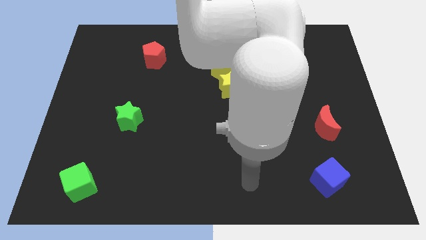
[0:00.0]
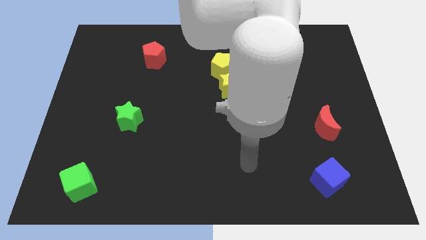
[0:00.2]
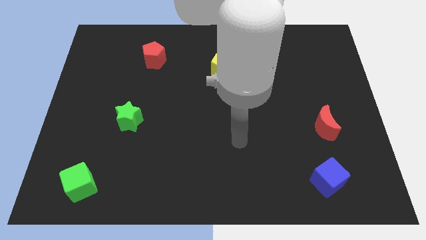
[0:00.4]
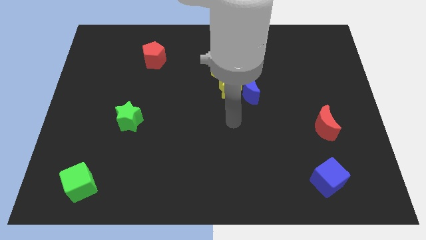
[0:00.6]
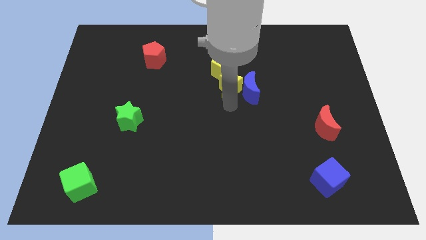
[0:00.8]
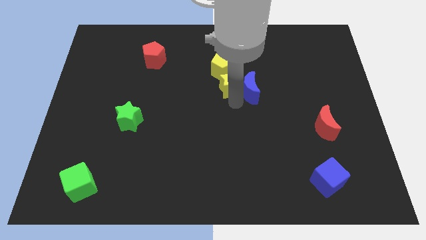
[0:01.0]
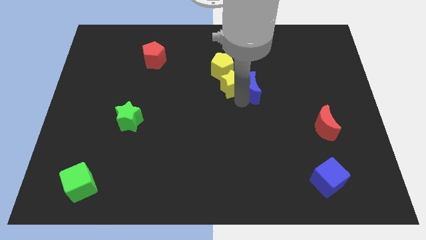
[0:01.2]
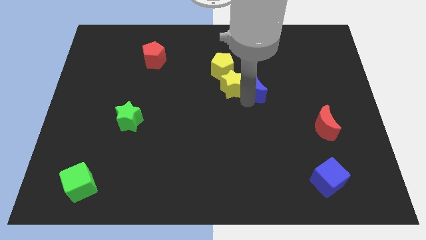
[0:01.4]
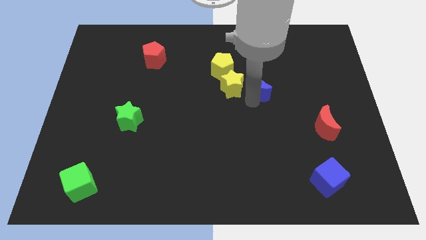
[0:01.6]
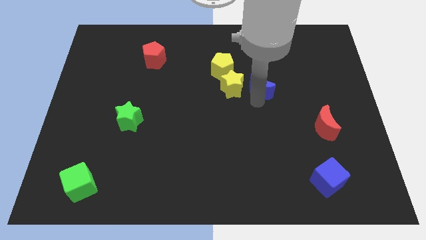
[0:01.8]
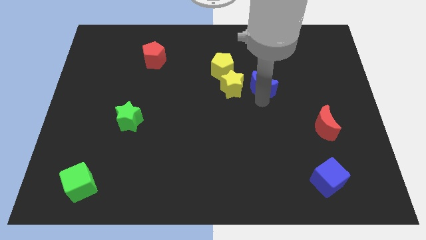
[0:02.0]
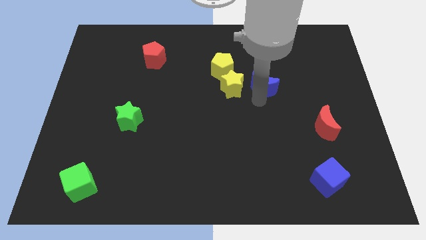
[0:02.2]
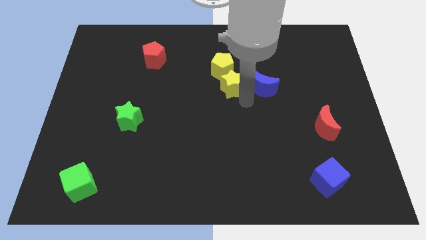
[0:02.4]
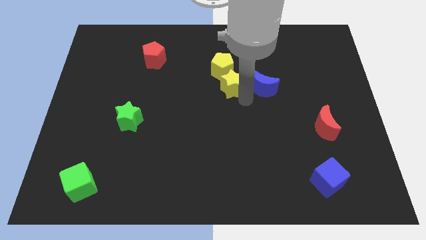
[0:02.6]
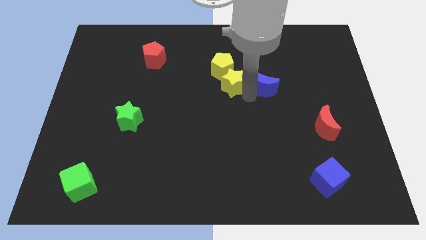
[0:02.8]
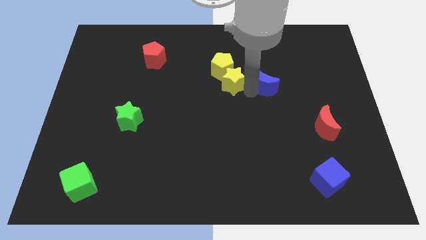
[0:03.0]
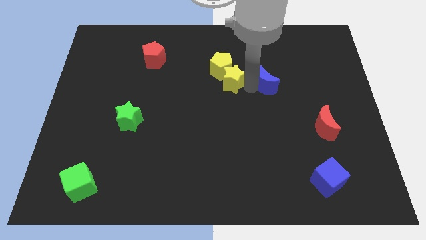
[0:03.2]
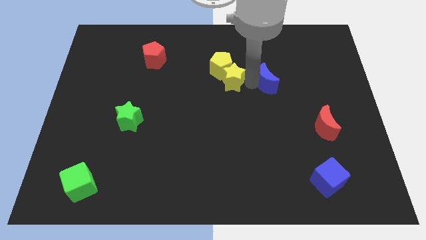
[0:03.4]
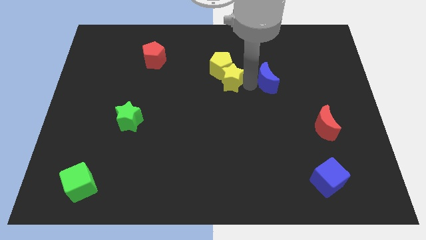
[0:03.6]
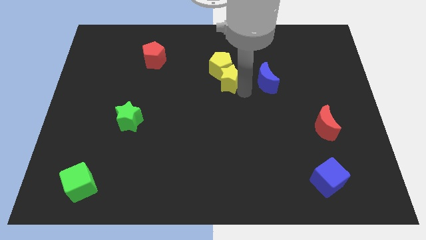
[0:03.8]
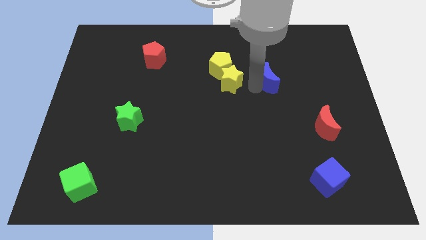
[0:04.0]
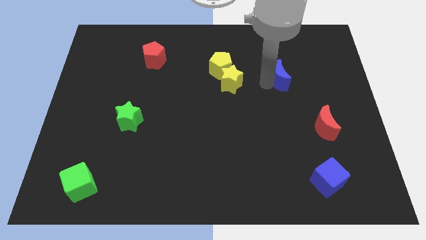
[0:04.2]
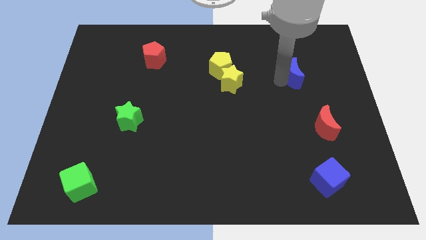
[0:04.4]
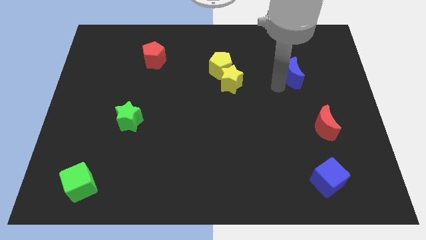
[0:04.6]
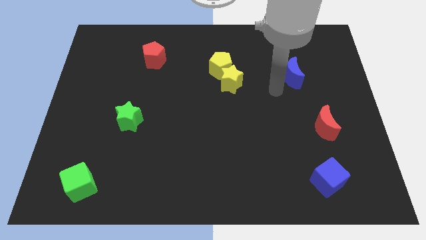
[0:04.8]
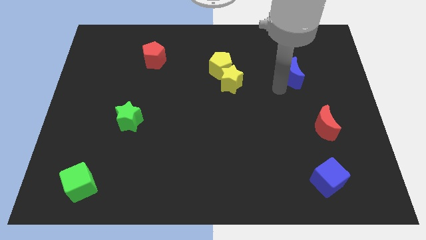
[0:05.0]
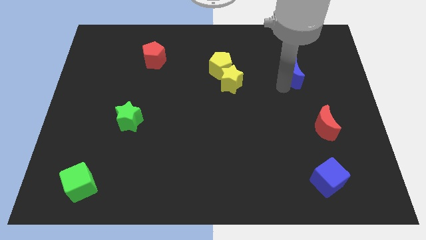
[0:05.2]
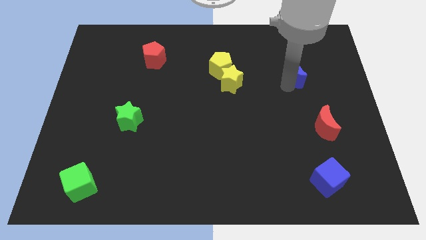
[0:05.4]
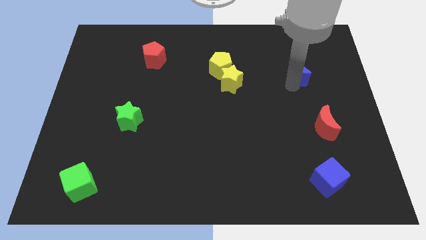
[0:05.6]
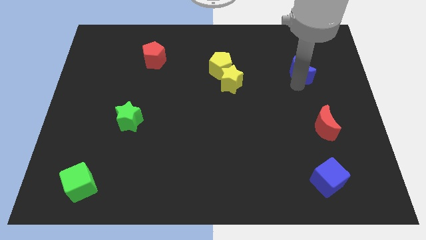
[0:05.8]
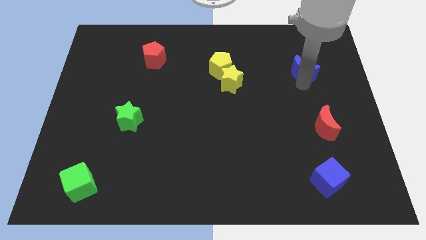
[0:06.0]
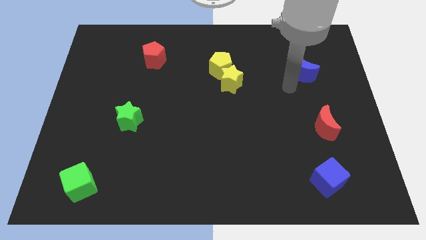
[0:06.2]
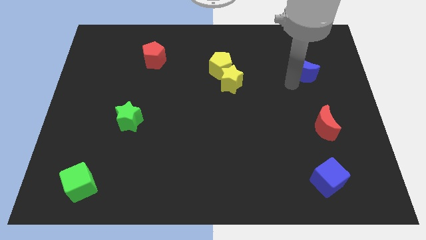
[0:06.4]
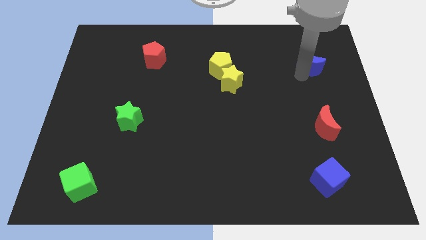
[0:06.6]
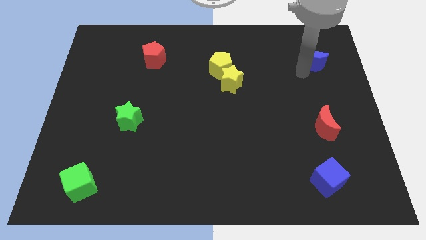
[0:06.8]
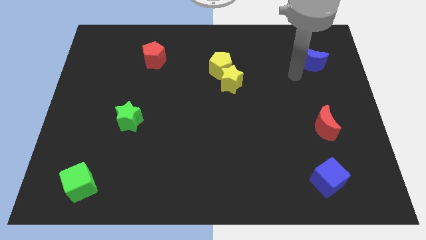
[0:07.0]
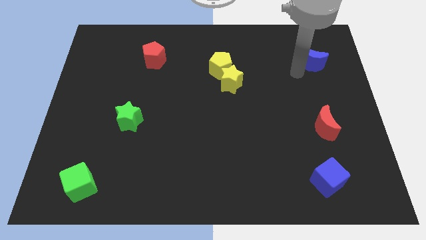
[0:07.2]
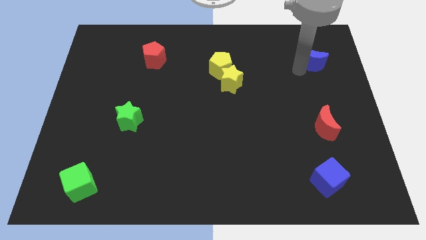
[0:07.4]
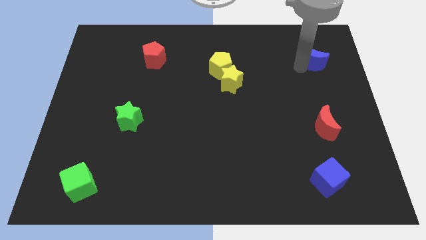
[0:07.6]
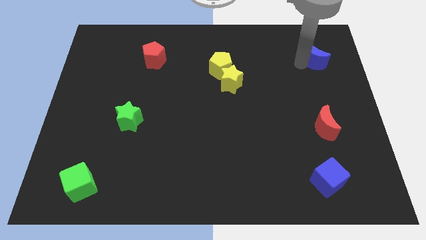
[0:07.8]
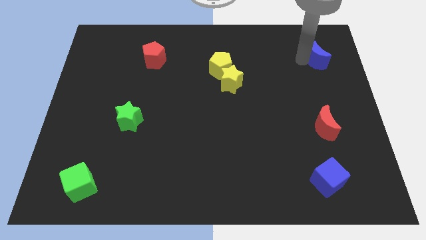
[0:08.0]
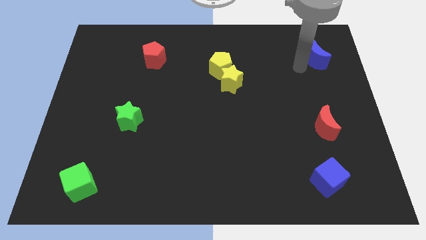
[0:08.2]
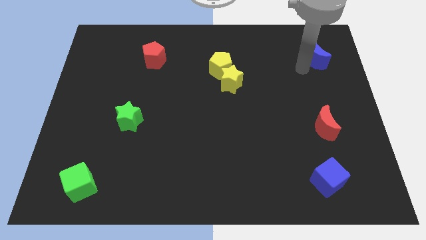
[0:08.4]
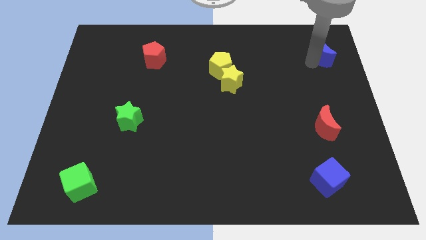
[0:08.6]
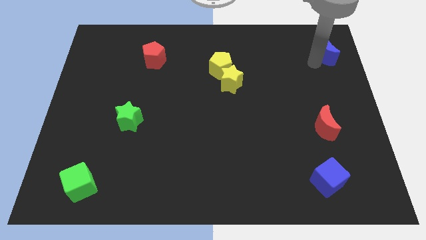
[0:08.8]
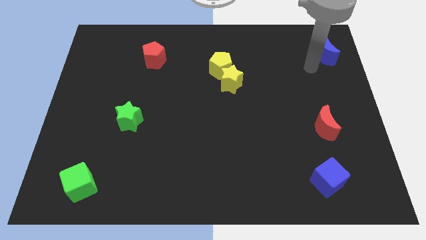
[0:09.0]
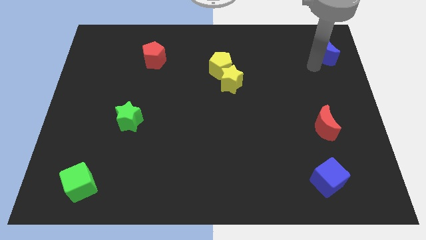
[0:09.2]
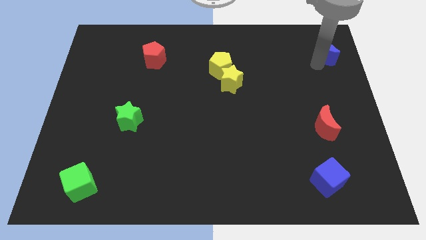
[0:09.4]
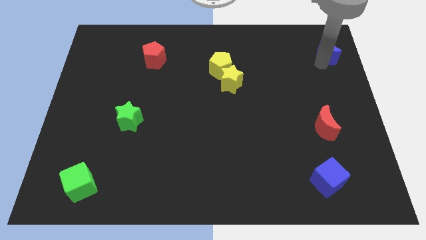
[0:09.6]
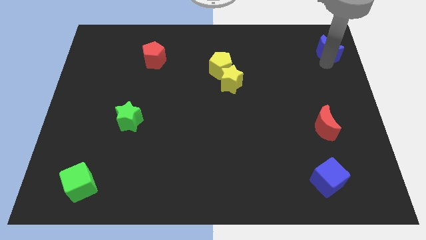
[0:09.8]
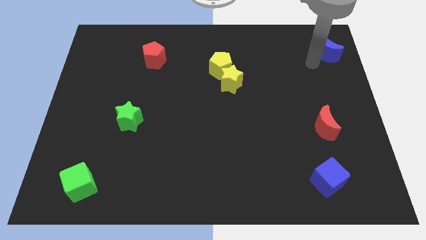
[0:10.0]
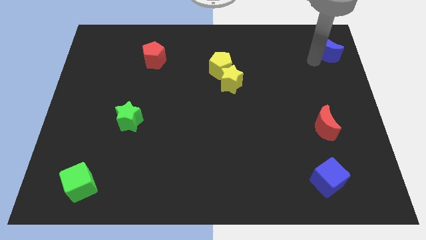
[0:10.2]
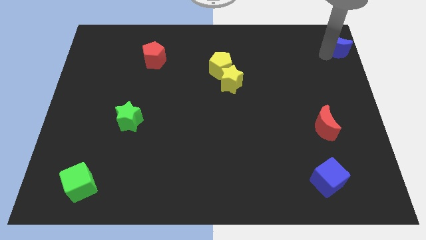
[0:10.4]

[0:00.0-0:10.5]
put the blue moon to the upper right corner

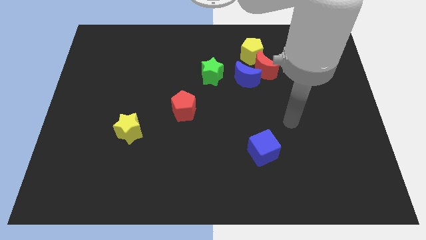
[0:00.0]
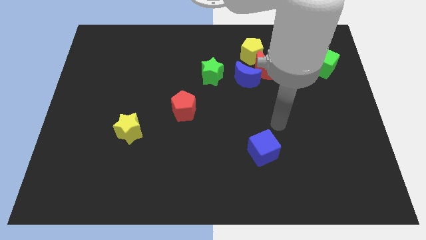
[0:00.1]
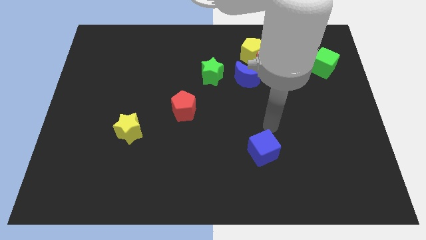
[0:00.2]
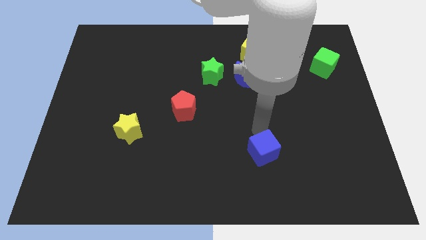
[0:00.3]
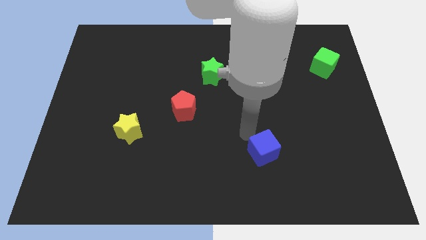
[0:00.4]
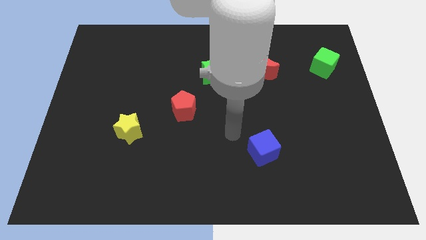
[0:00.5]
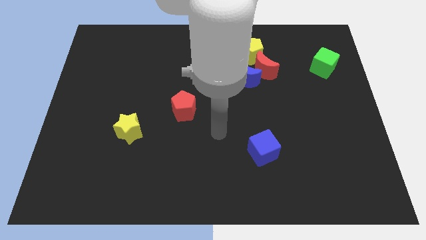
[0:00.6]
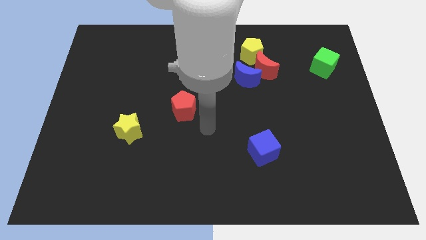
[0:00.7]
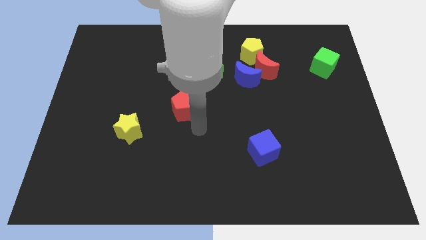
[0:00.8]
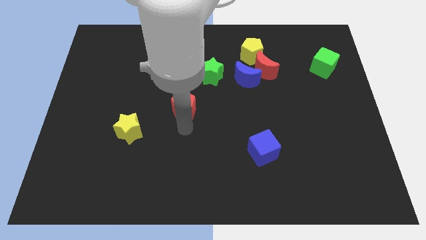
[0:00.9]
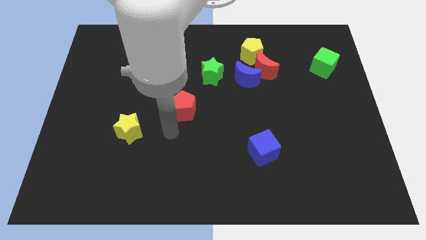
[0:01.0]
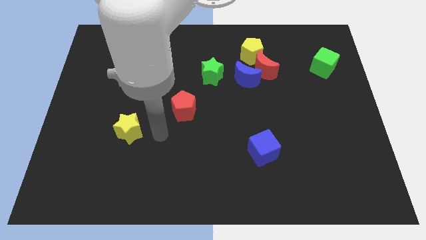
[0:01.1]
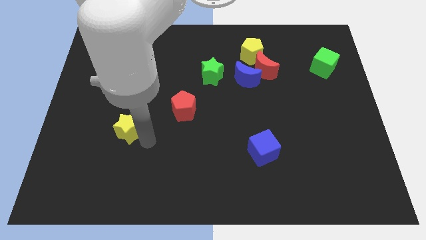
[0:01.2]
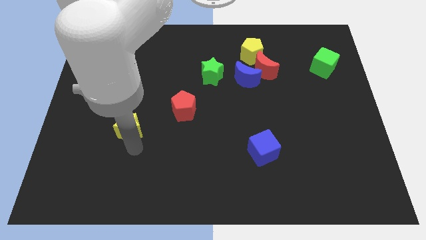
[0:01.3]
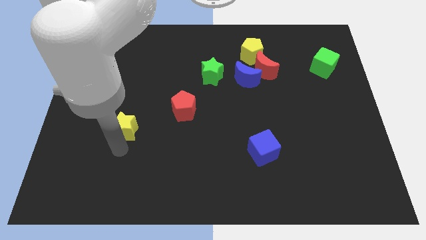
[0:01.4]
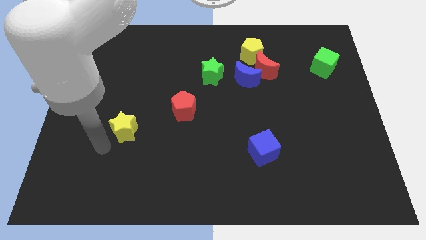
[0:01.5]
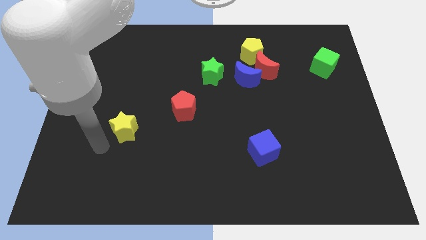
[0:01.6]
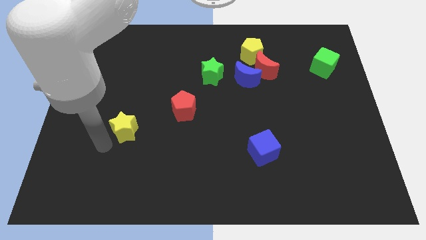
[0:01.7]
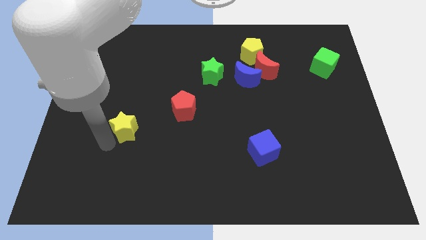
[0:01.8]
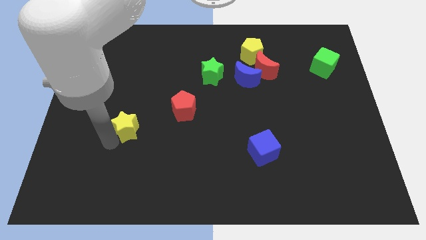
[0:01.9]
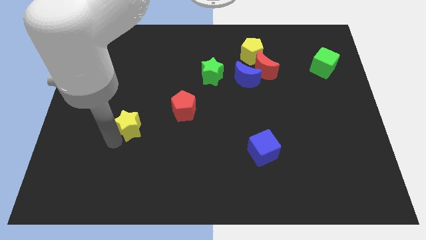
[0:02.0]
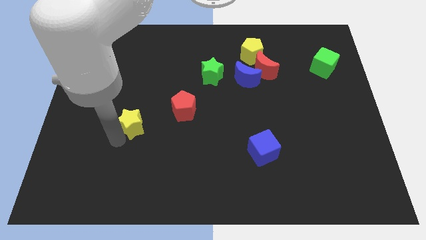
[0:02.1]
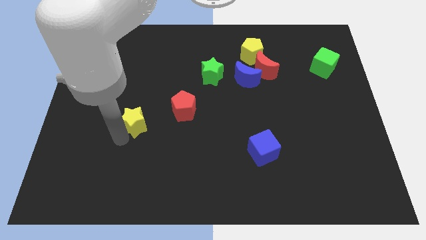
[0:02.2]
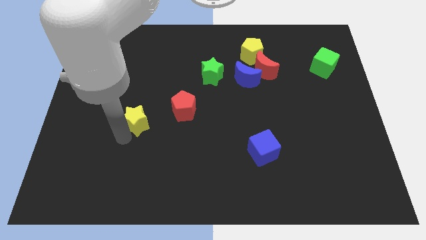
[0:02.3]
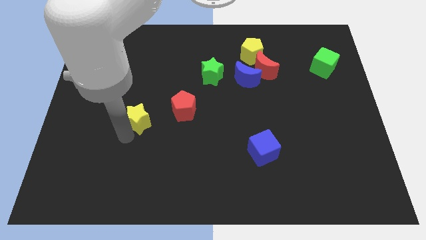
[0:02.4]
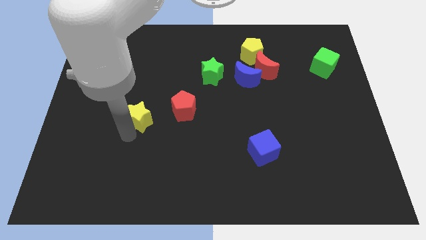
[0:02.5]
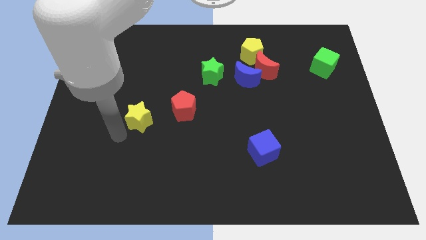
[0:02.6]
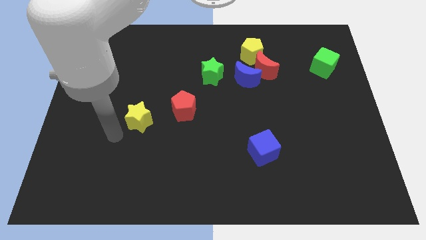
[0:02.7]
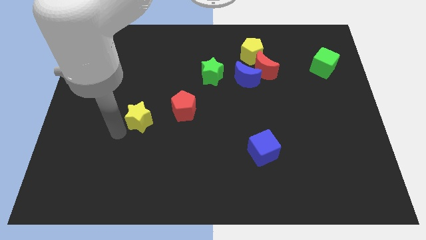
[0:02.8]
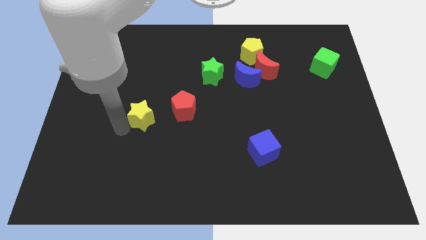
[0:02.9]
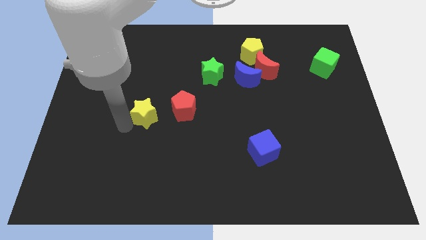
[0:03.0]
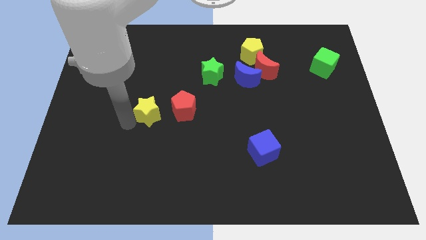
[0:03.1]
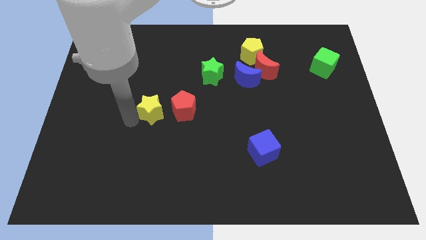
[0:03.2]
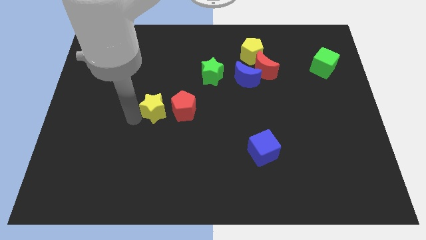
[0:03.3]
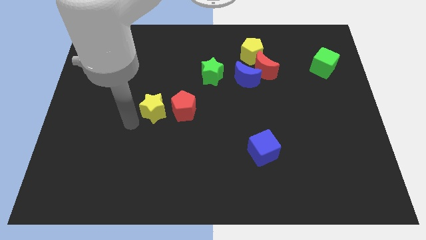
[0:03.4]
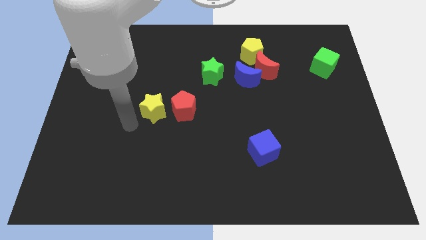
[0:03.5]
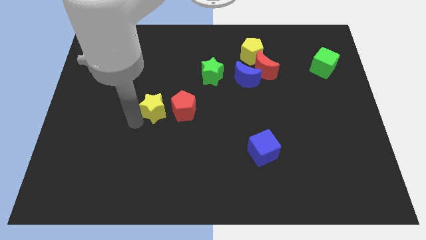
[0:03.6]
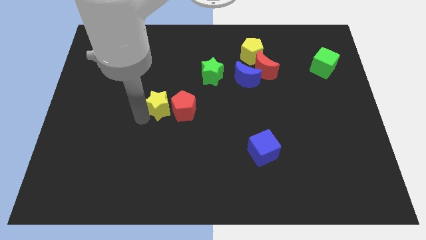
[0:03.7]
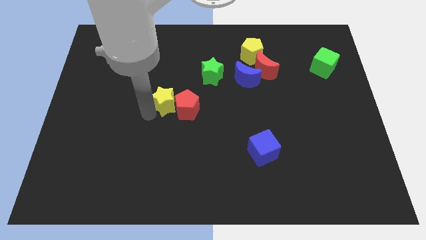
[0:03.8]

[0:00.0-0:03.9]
move the yellow star to the middle of the board
